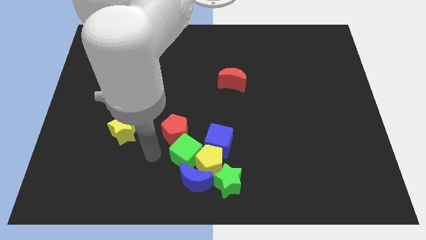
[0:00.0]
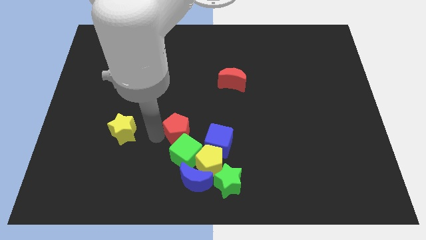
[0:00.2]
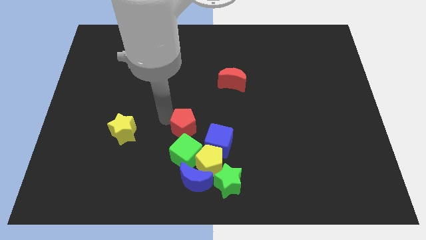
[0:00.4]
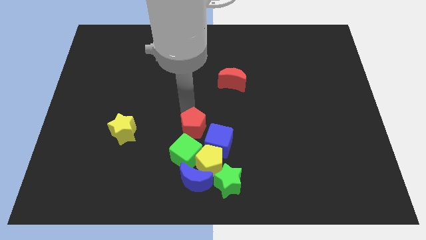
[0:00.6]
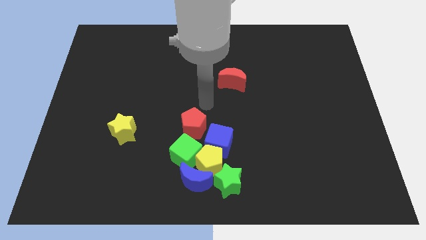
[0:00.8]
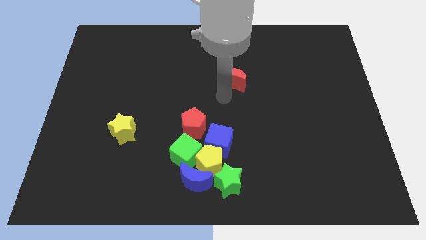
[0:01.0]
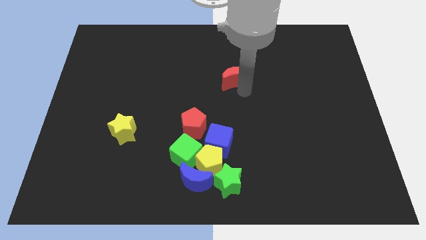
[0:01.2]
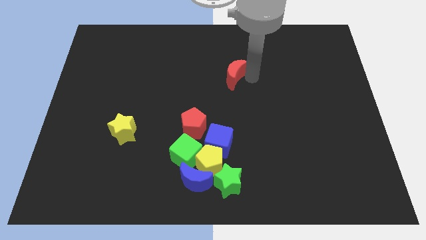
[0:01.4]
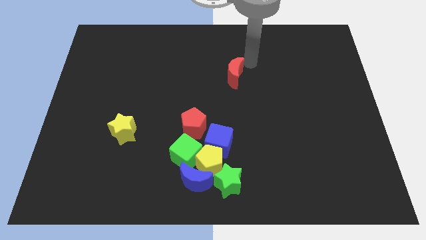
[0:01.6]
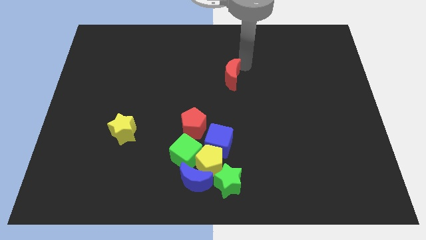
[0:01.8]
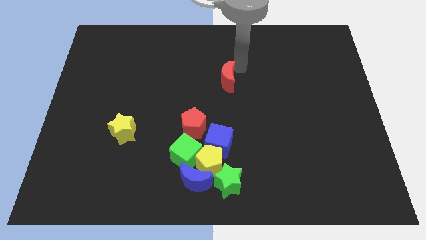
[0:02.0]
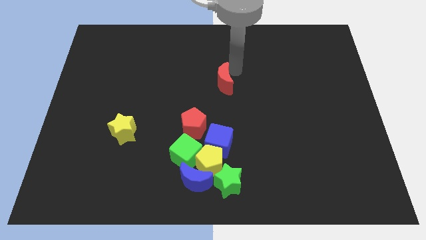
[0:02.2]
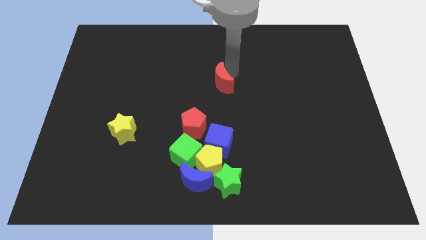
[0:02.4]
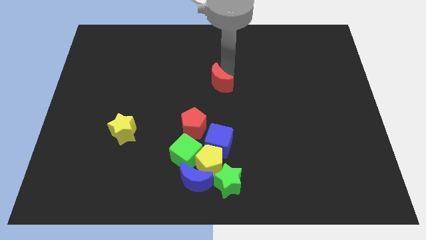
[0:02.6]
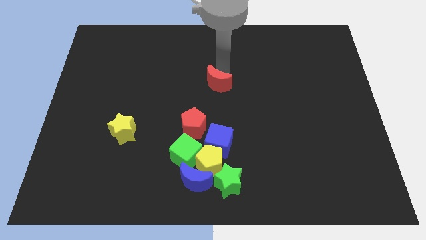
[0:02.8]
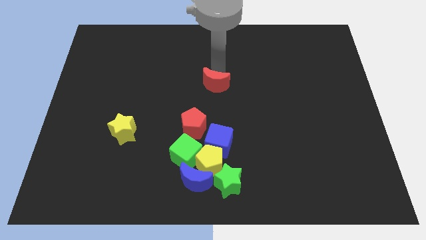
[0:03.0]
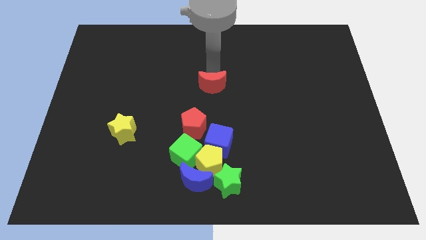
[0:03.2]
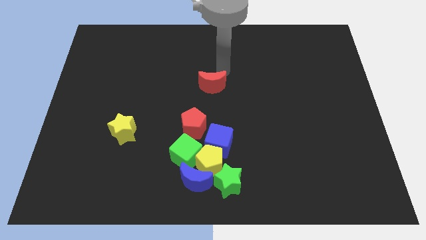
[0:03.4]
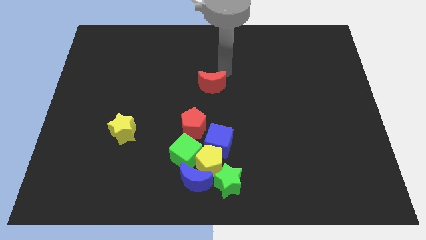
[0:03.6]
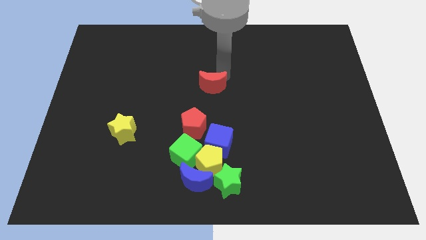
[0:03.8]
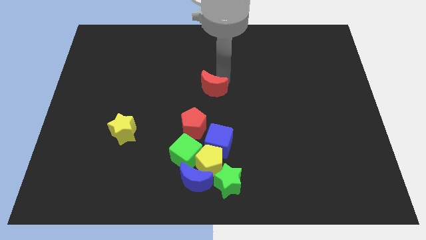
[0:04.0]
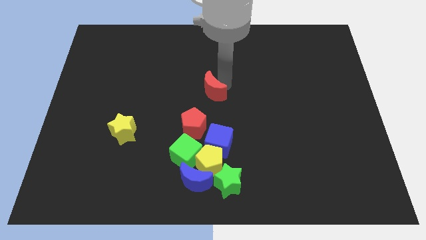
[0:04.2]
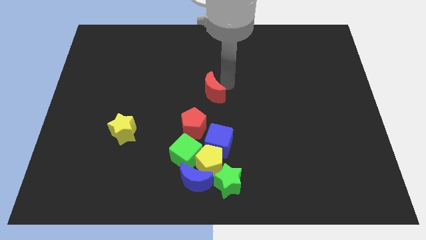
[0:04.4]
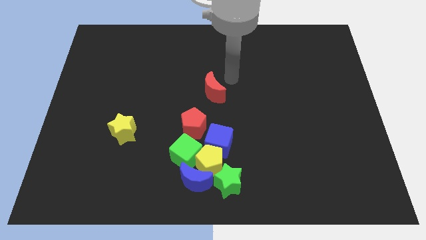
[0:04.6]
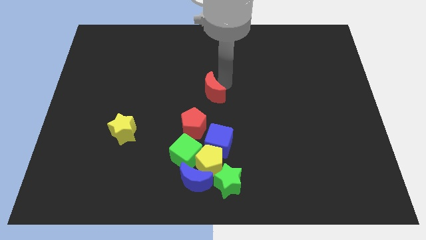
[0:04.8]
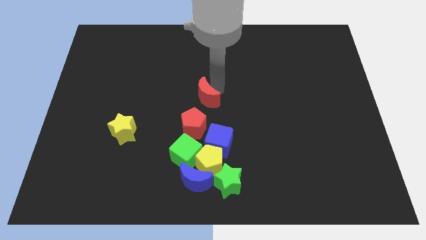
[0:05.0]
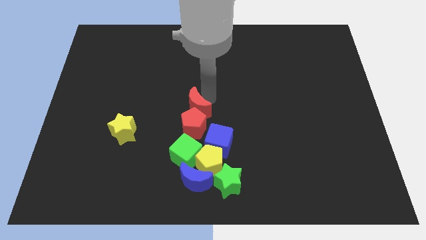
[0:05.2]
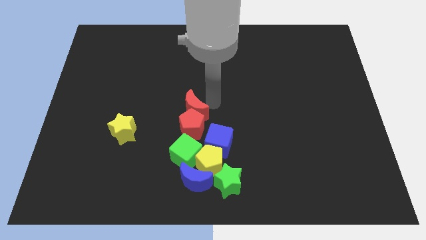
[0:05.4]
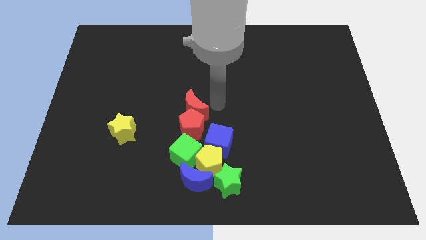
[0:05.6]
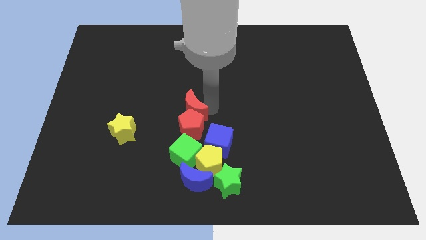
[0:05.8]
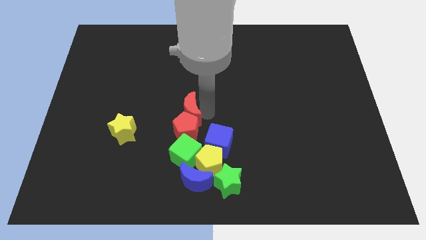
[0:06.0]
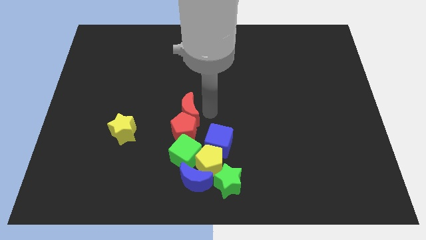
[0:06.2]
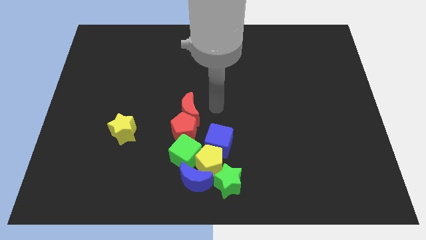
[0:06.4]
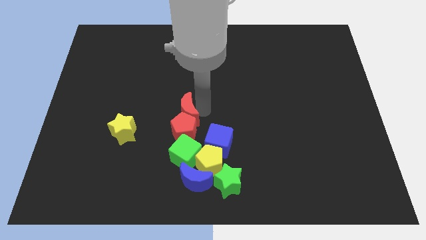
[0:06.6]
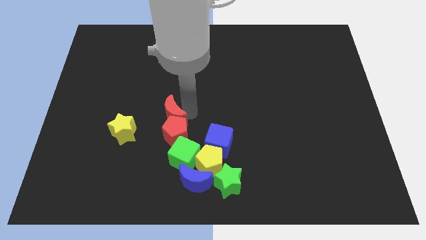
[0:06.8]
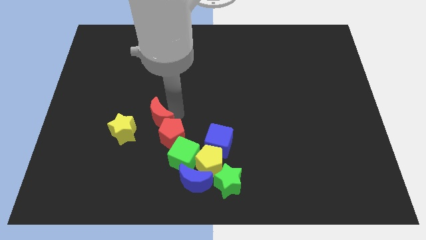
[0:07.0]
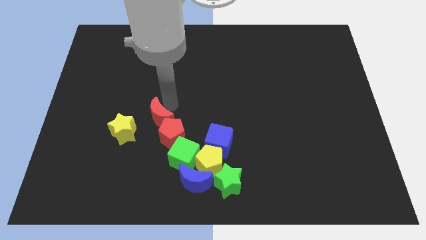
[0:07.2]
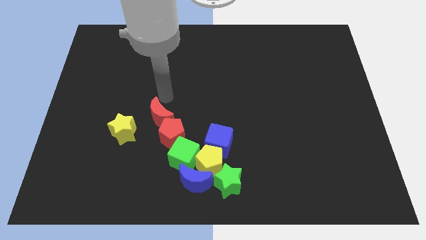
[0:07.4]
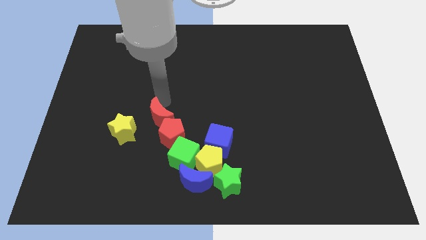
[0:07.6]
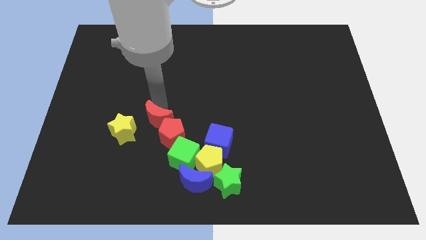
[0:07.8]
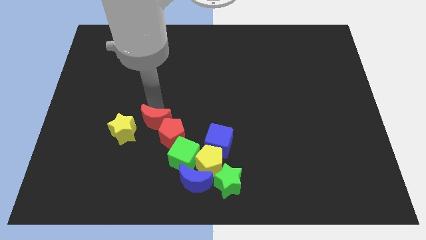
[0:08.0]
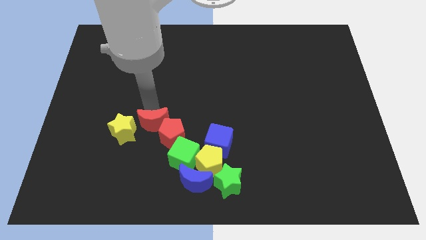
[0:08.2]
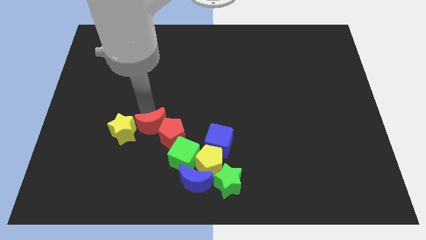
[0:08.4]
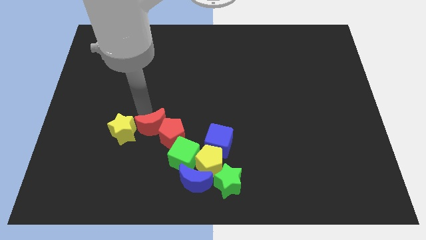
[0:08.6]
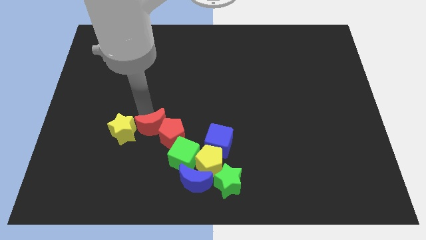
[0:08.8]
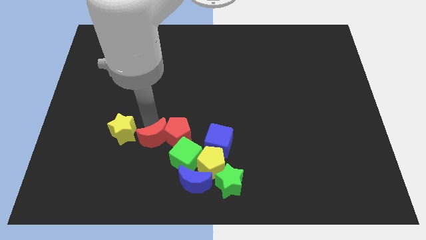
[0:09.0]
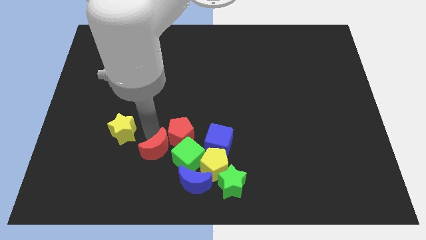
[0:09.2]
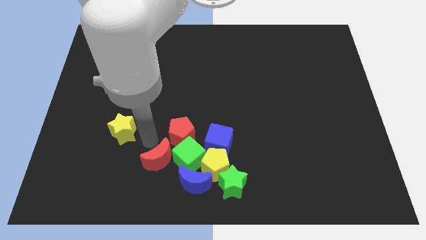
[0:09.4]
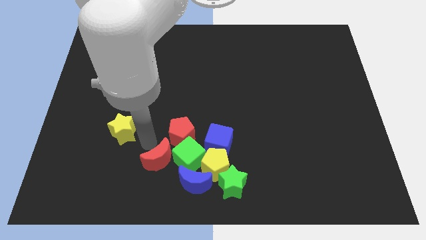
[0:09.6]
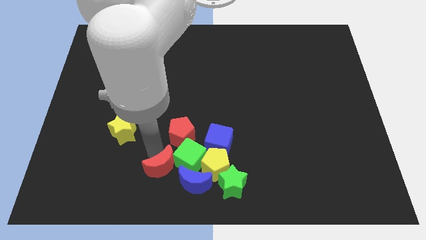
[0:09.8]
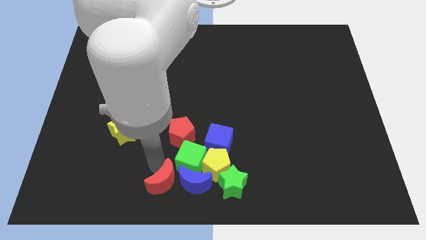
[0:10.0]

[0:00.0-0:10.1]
put the red moon towards the blue moon

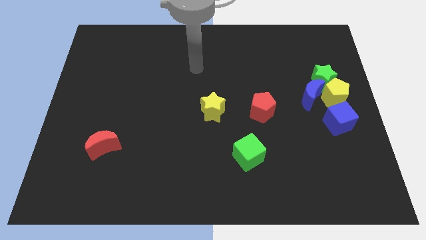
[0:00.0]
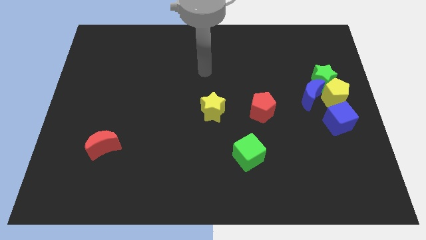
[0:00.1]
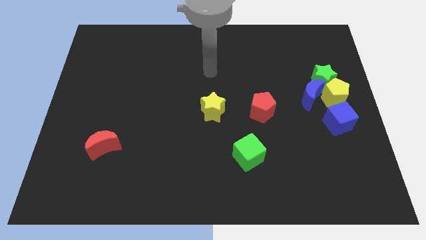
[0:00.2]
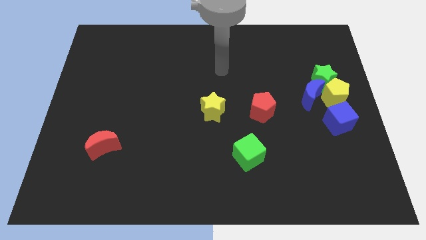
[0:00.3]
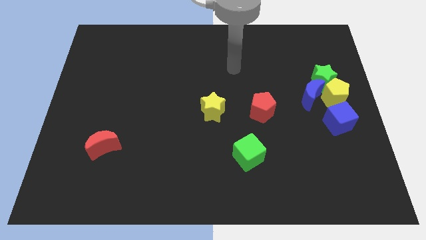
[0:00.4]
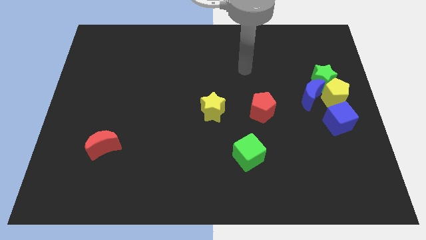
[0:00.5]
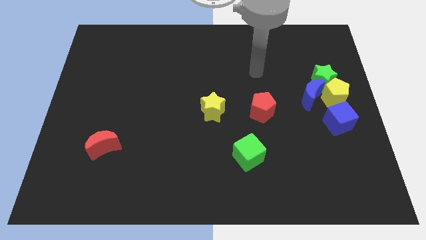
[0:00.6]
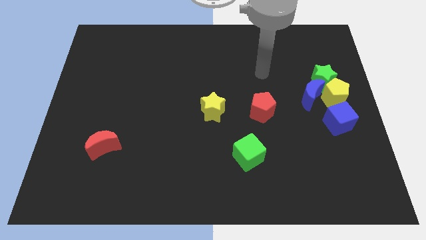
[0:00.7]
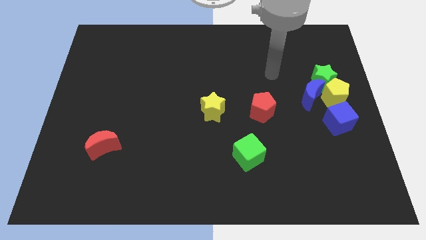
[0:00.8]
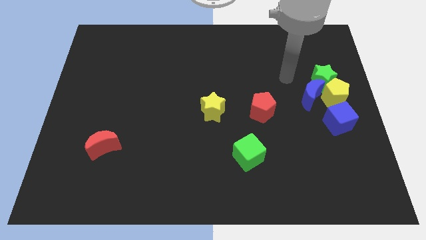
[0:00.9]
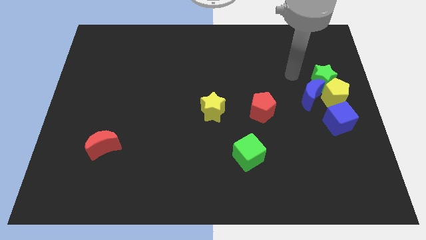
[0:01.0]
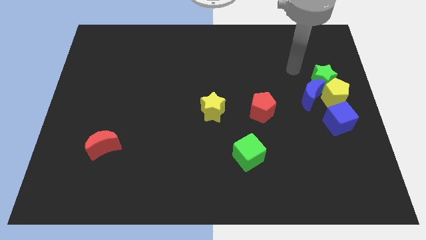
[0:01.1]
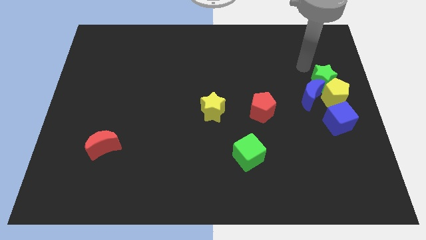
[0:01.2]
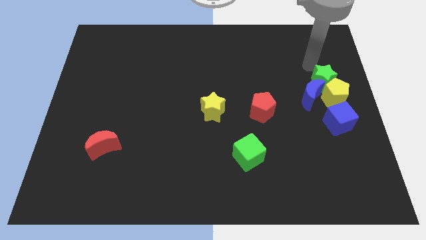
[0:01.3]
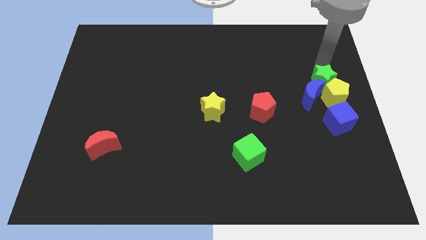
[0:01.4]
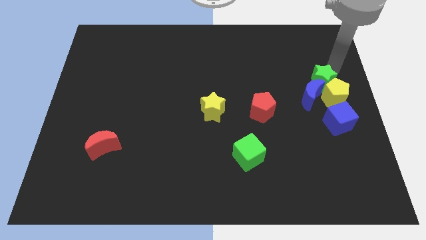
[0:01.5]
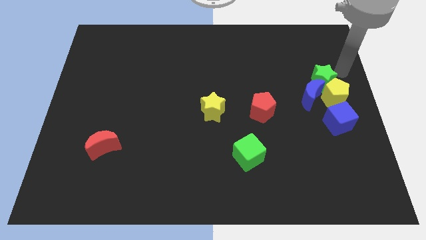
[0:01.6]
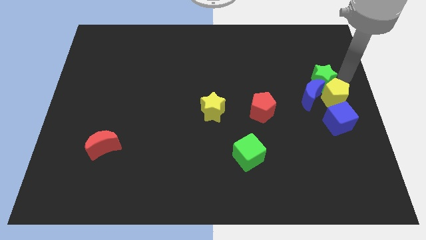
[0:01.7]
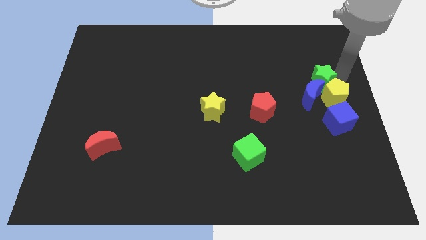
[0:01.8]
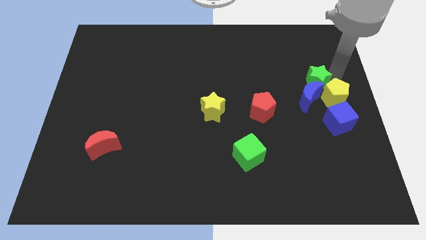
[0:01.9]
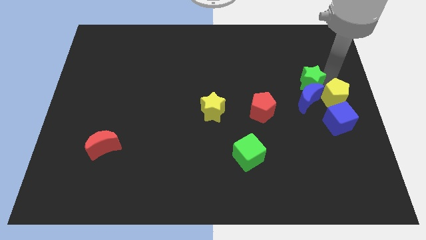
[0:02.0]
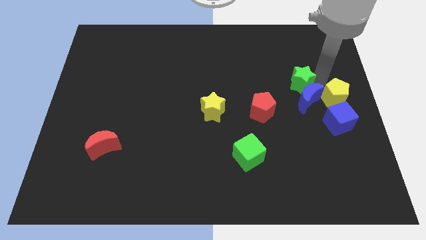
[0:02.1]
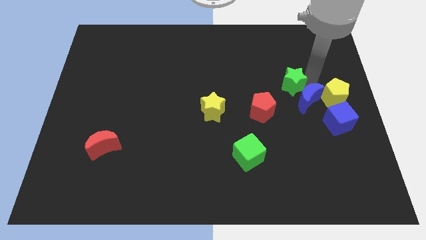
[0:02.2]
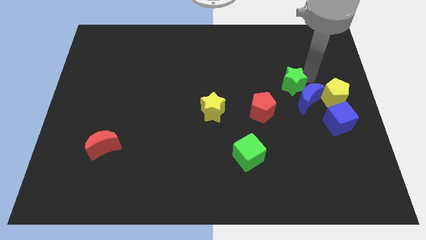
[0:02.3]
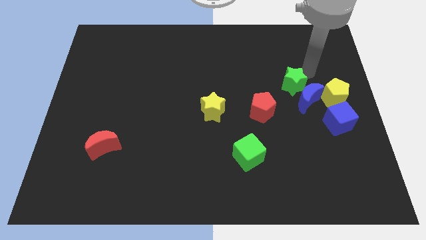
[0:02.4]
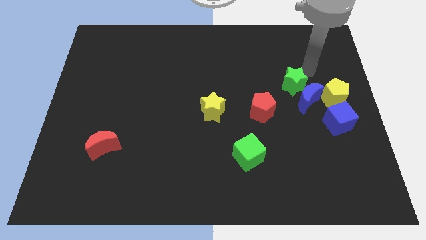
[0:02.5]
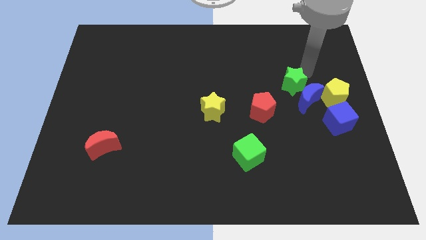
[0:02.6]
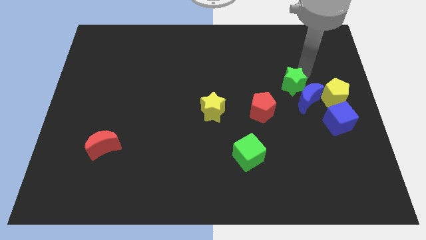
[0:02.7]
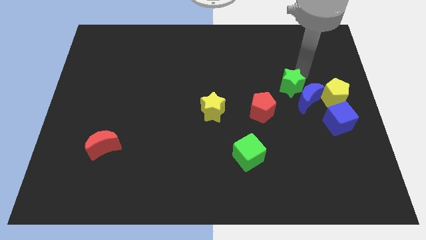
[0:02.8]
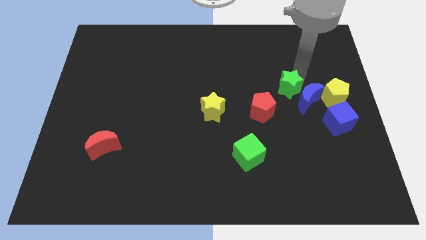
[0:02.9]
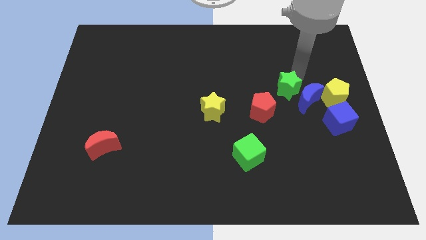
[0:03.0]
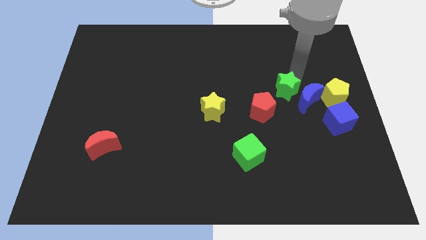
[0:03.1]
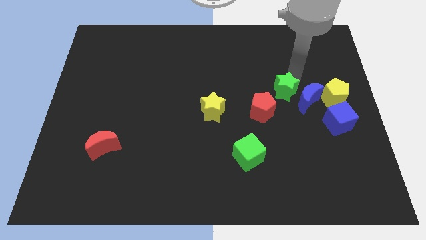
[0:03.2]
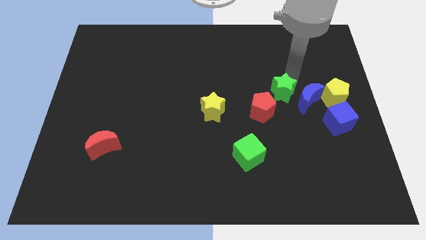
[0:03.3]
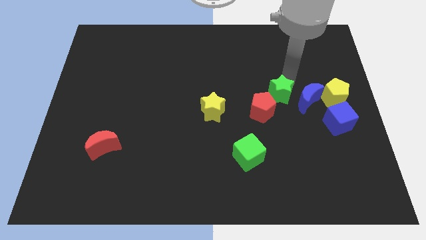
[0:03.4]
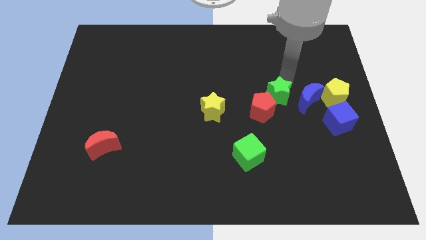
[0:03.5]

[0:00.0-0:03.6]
move the green star towards the red pentagon
